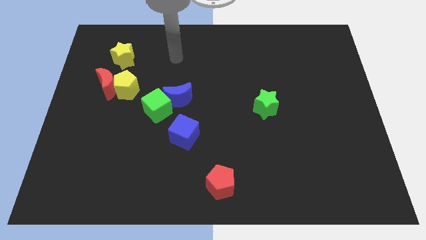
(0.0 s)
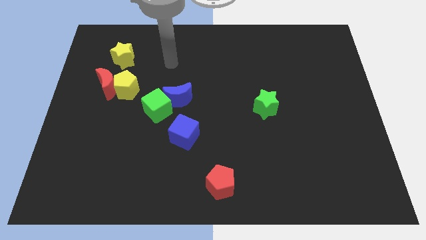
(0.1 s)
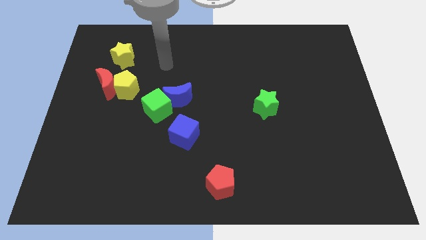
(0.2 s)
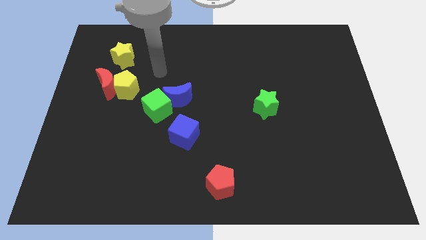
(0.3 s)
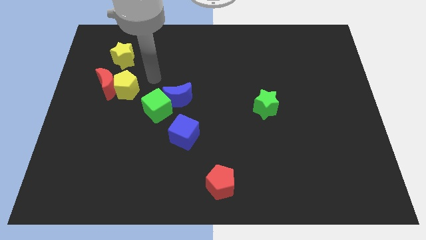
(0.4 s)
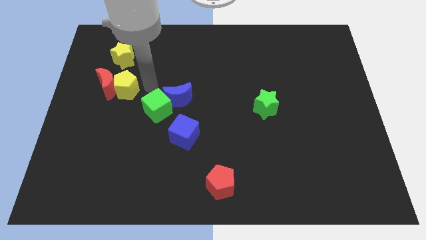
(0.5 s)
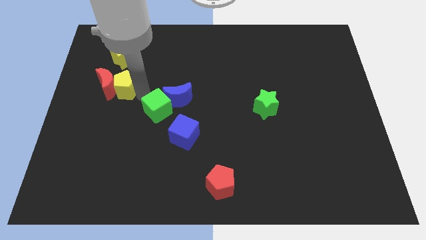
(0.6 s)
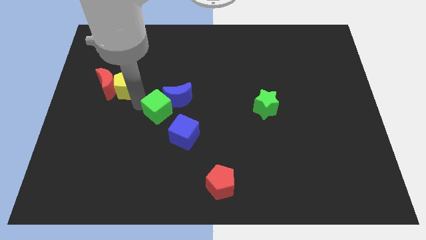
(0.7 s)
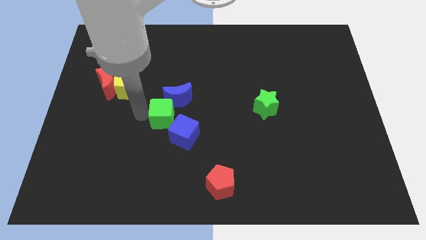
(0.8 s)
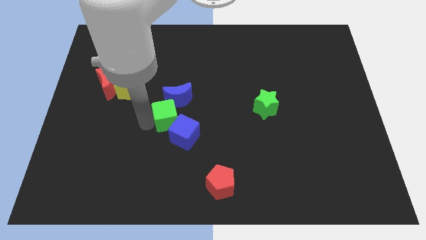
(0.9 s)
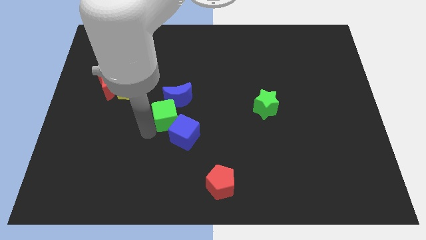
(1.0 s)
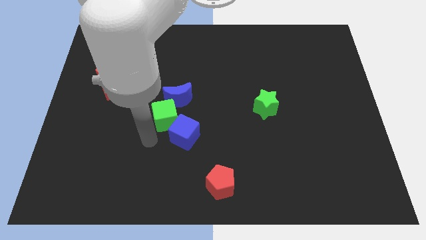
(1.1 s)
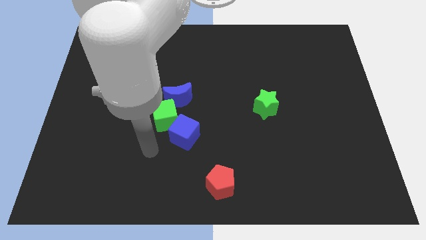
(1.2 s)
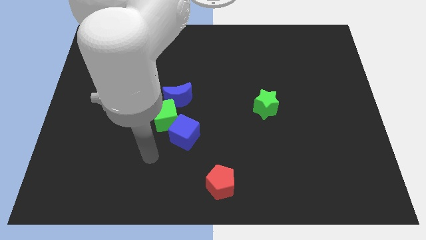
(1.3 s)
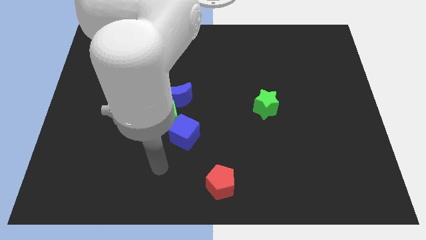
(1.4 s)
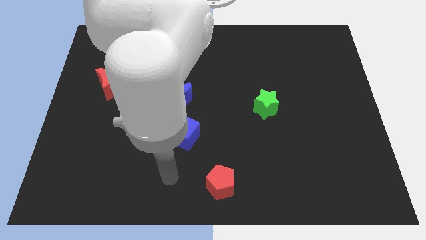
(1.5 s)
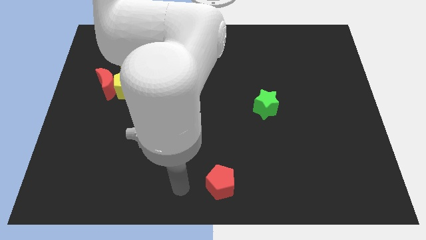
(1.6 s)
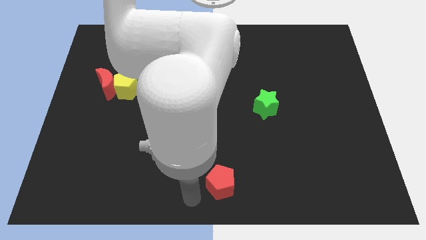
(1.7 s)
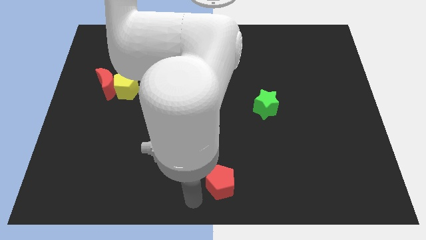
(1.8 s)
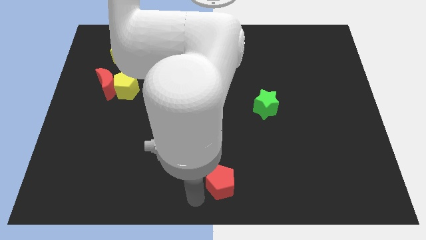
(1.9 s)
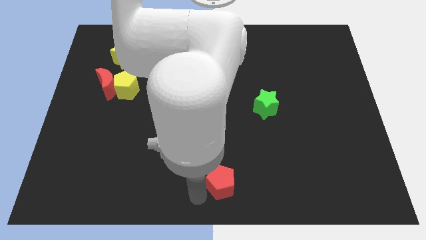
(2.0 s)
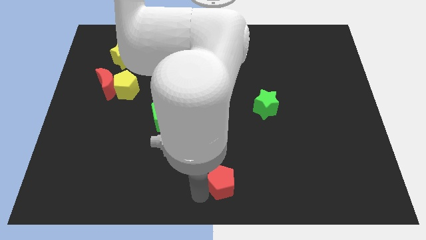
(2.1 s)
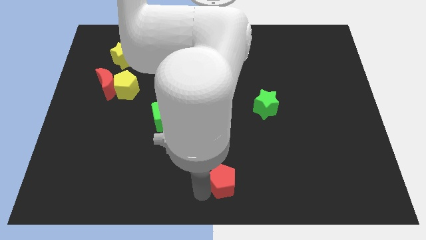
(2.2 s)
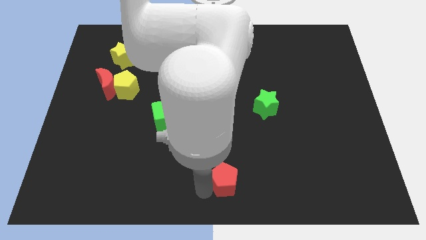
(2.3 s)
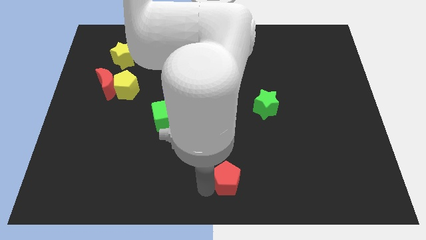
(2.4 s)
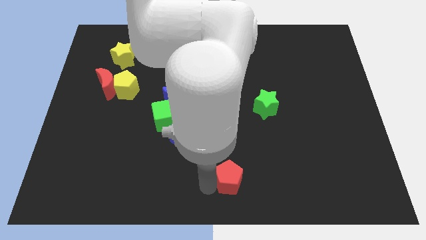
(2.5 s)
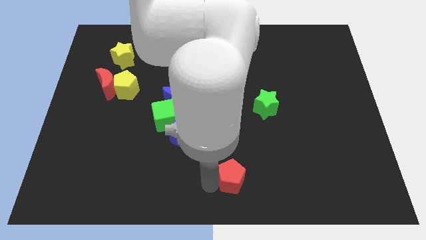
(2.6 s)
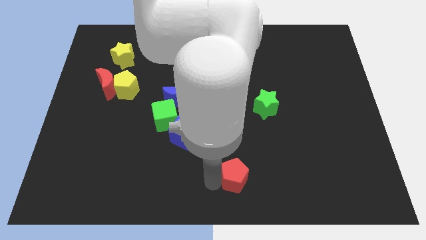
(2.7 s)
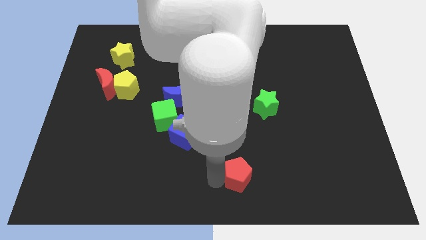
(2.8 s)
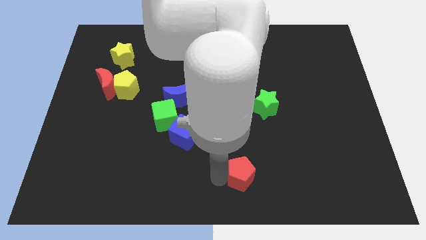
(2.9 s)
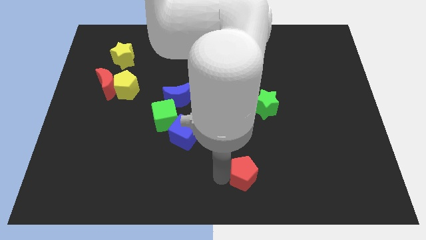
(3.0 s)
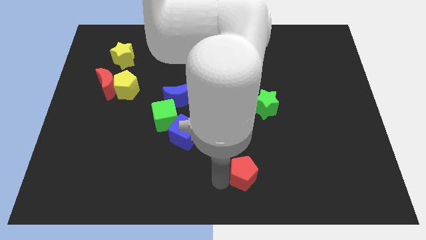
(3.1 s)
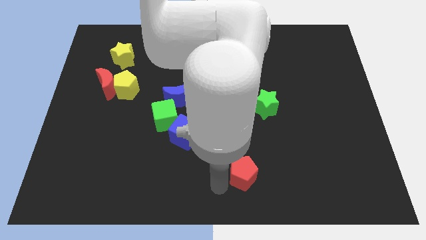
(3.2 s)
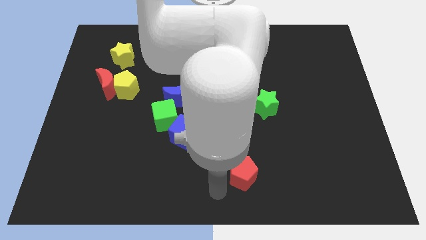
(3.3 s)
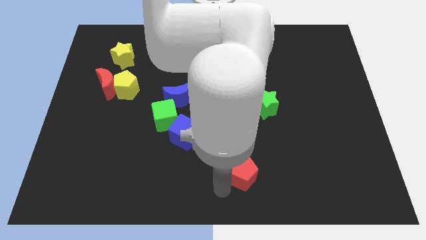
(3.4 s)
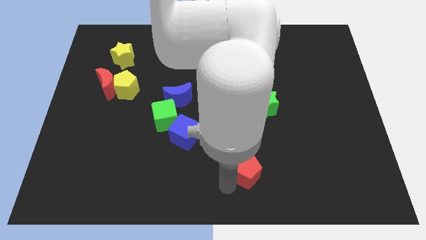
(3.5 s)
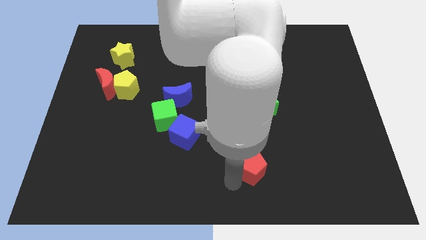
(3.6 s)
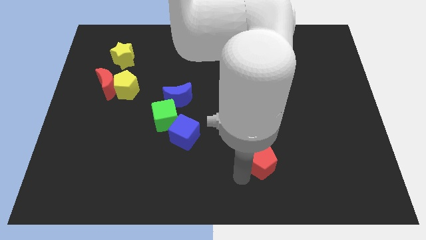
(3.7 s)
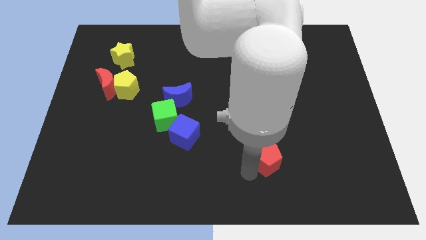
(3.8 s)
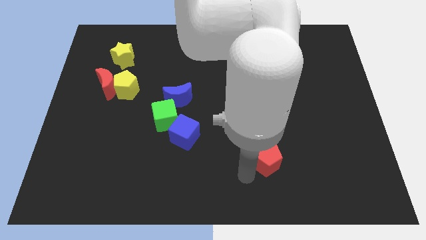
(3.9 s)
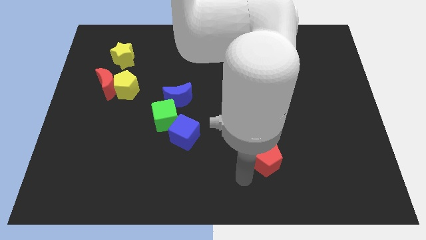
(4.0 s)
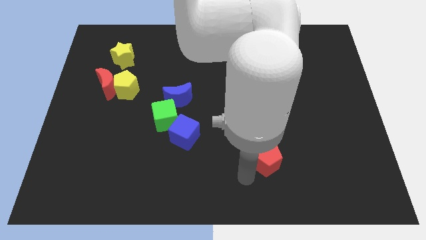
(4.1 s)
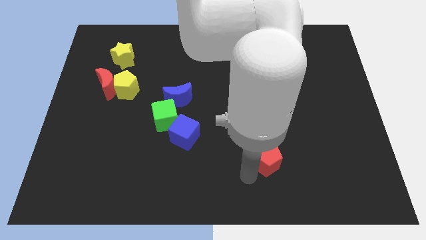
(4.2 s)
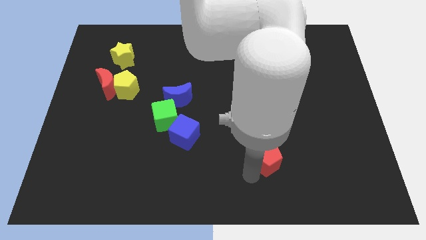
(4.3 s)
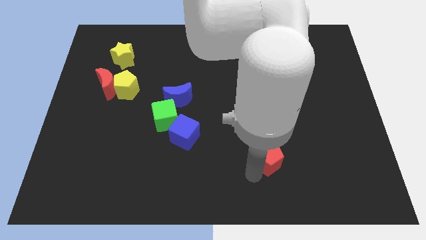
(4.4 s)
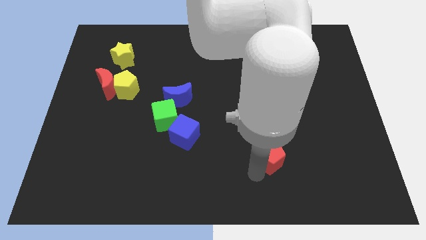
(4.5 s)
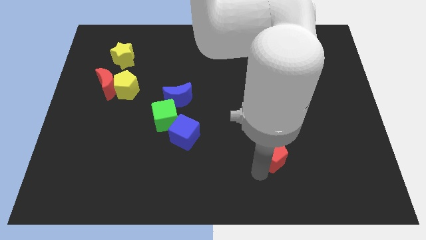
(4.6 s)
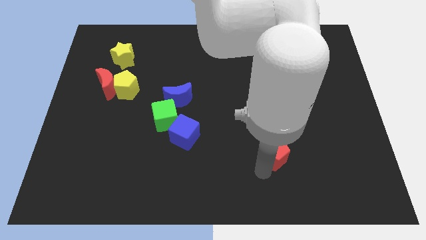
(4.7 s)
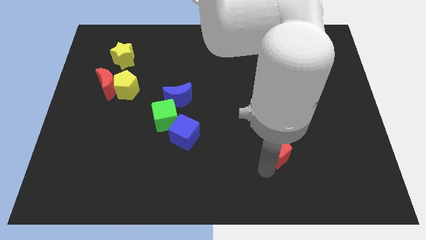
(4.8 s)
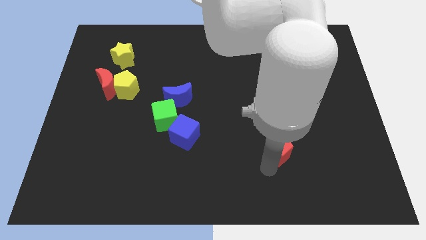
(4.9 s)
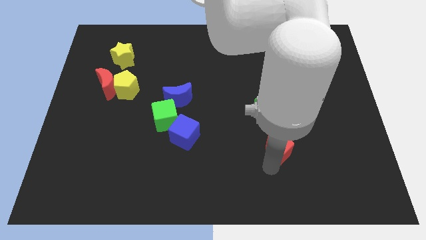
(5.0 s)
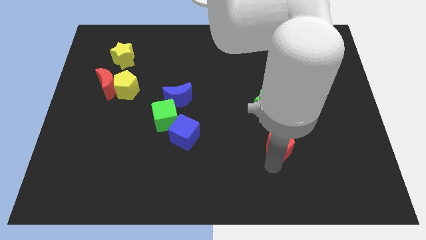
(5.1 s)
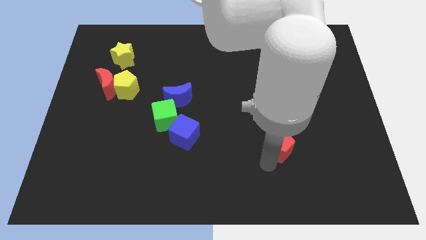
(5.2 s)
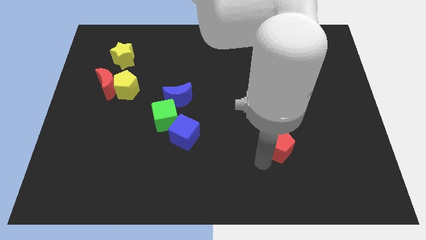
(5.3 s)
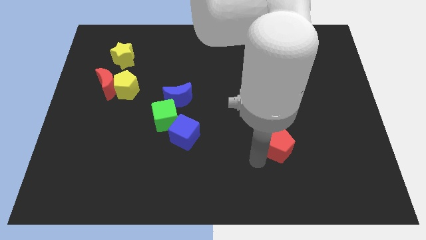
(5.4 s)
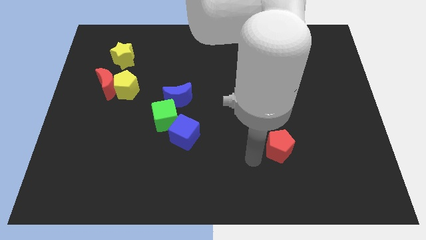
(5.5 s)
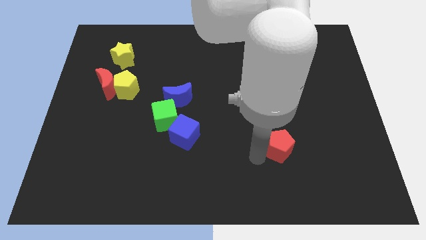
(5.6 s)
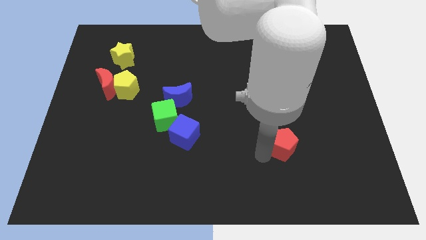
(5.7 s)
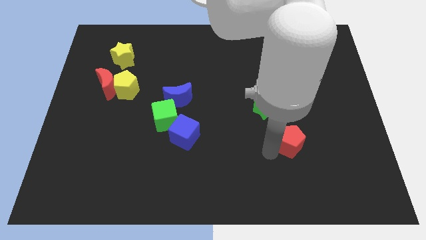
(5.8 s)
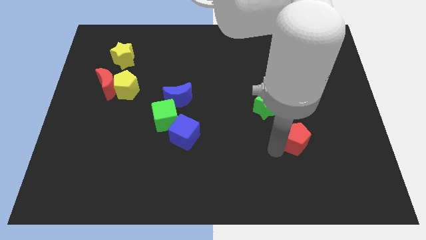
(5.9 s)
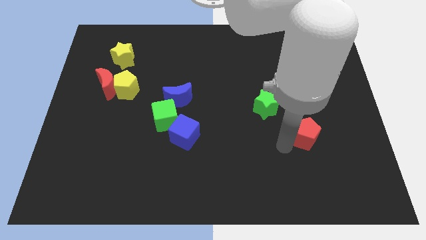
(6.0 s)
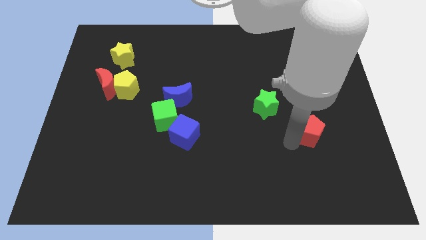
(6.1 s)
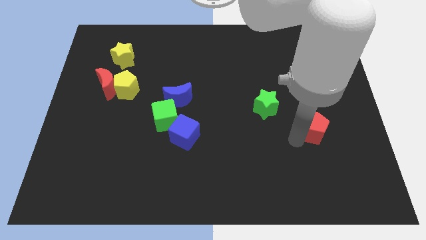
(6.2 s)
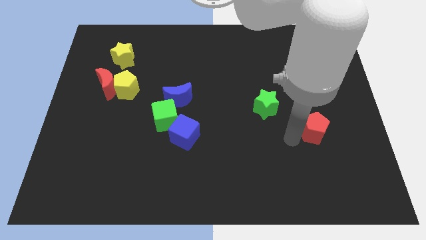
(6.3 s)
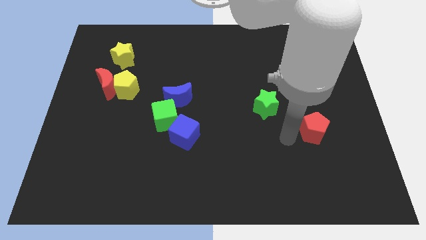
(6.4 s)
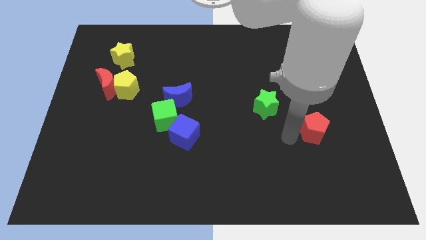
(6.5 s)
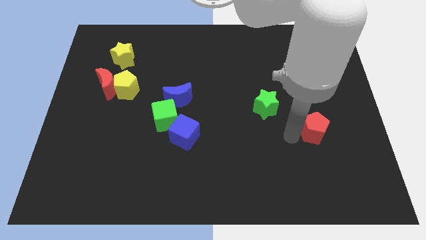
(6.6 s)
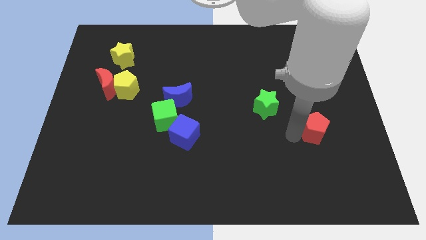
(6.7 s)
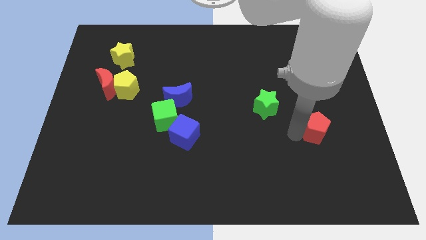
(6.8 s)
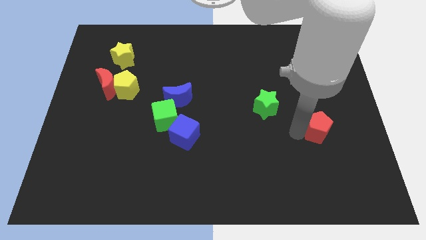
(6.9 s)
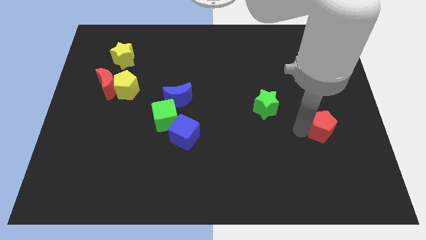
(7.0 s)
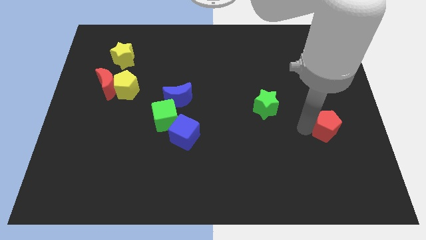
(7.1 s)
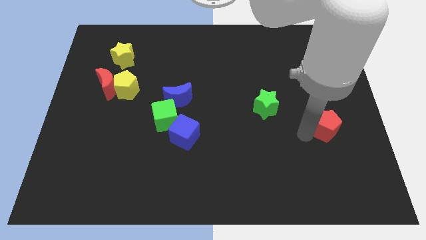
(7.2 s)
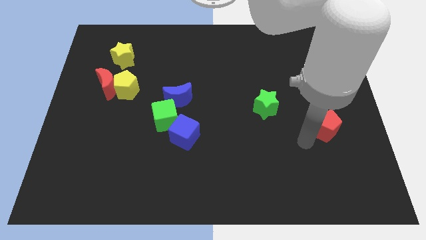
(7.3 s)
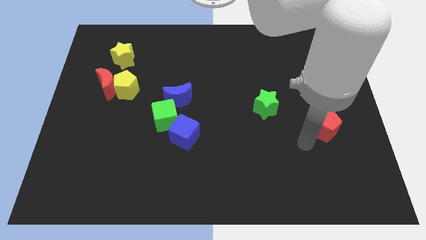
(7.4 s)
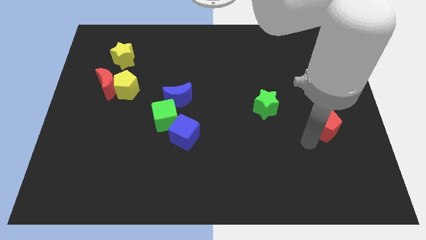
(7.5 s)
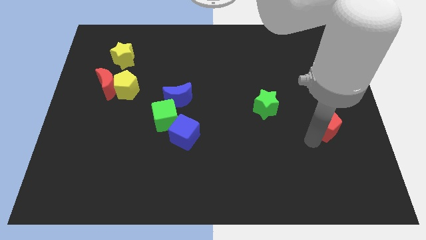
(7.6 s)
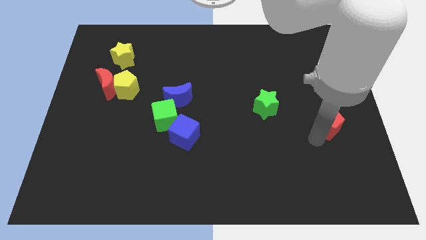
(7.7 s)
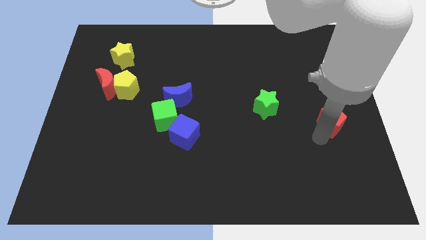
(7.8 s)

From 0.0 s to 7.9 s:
slide the red pentagon to the center right
